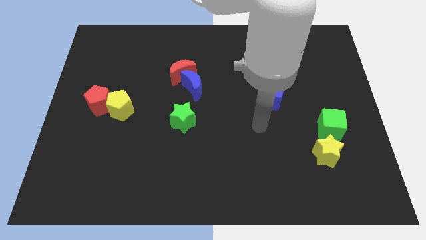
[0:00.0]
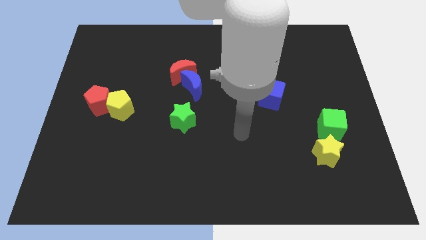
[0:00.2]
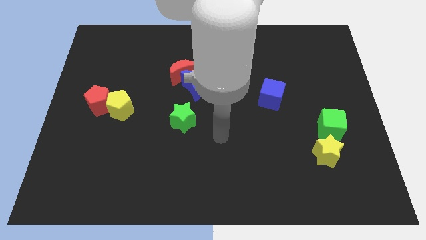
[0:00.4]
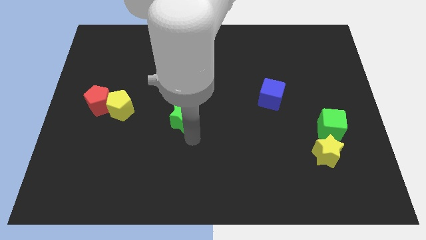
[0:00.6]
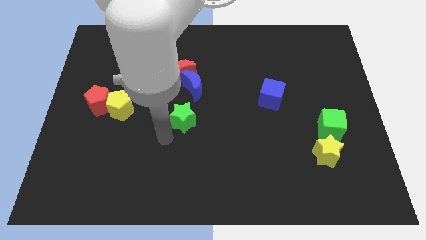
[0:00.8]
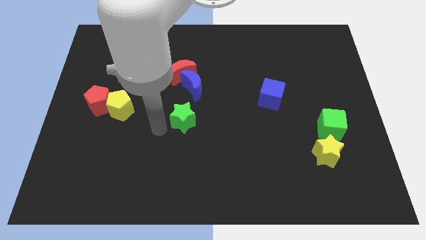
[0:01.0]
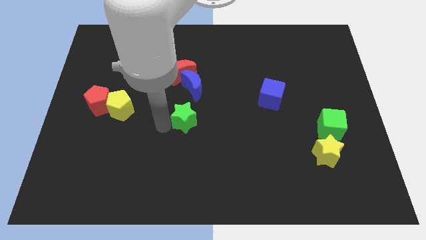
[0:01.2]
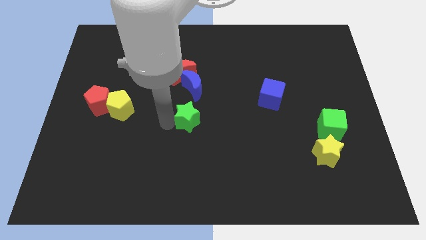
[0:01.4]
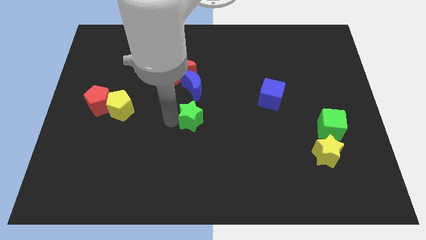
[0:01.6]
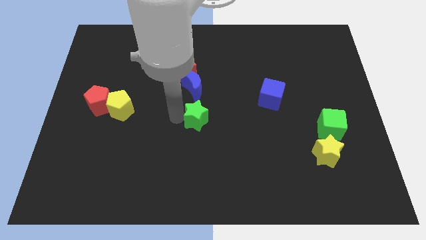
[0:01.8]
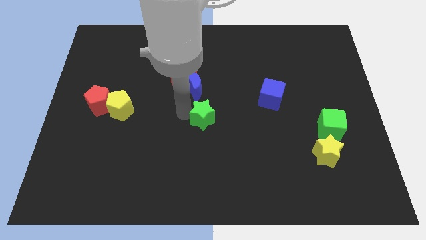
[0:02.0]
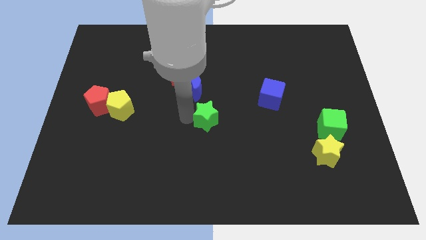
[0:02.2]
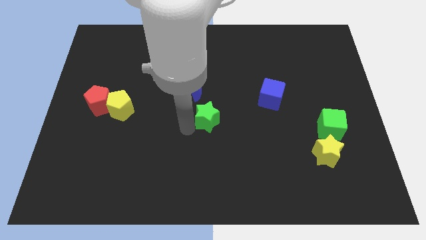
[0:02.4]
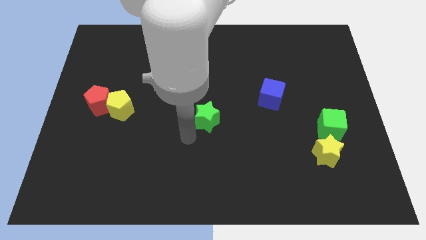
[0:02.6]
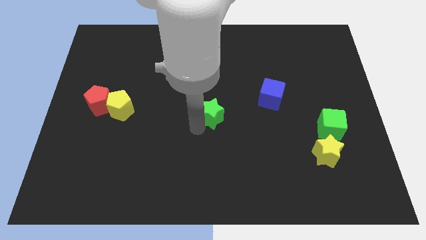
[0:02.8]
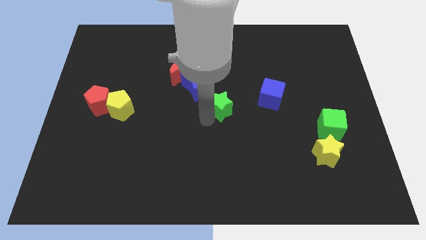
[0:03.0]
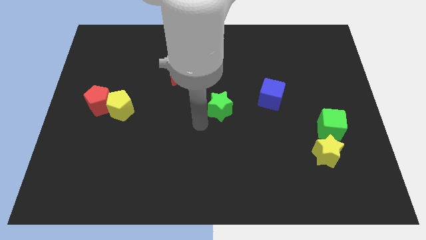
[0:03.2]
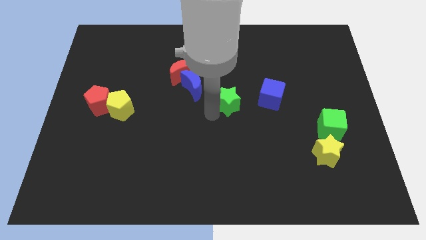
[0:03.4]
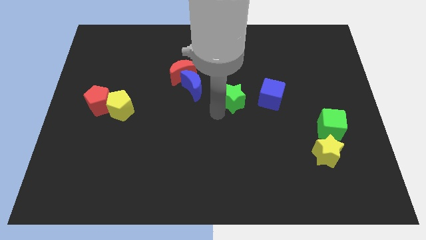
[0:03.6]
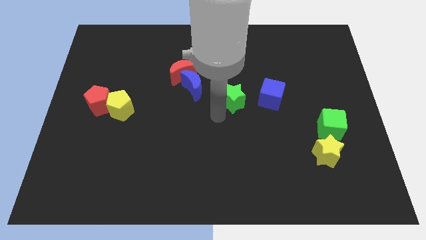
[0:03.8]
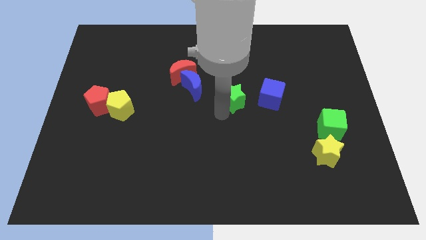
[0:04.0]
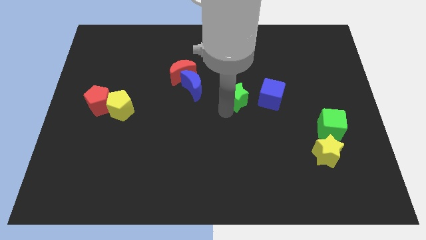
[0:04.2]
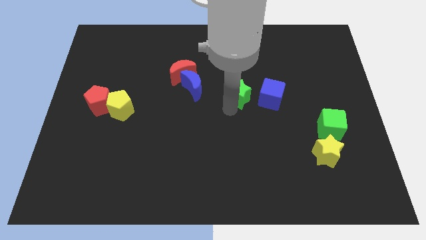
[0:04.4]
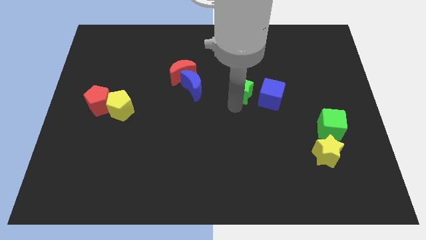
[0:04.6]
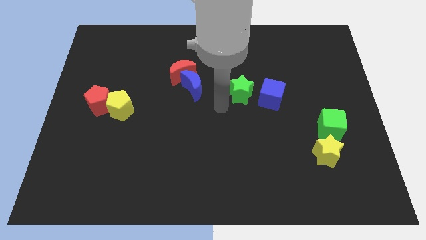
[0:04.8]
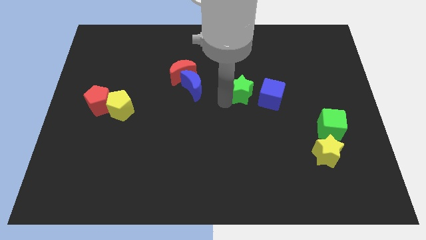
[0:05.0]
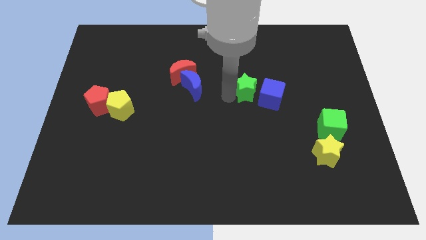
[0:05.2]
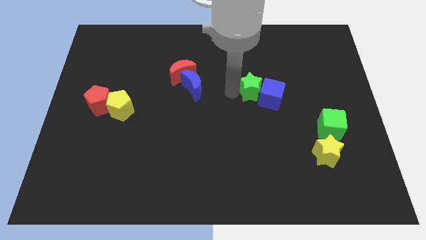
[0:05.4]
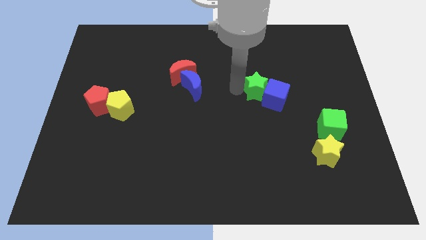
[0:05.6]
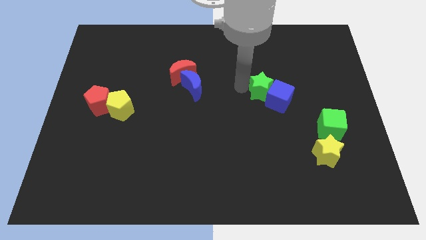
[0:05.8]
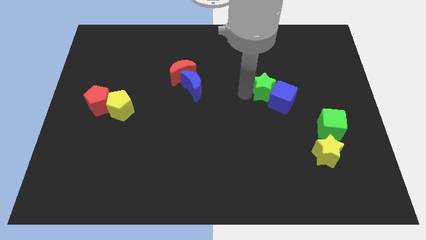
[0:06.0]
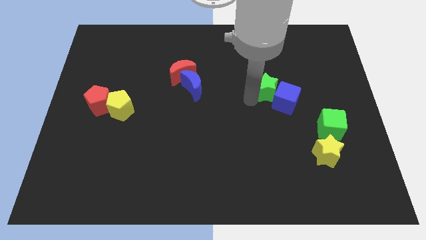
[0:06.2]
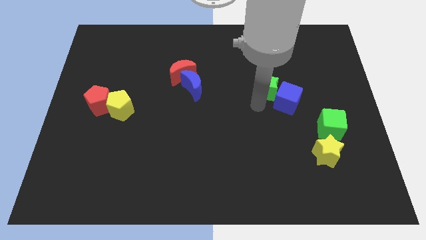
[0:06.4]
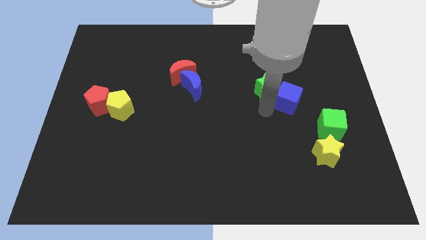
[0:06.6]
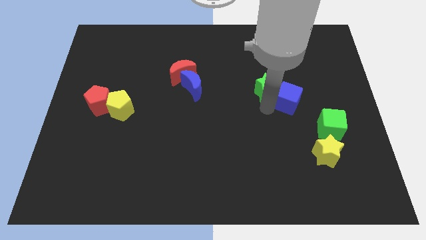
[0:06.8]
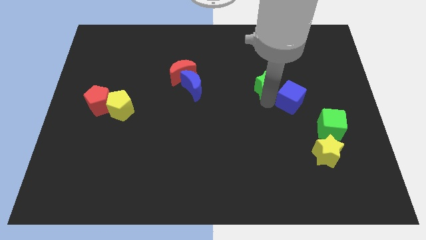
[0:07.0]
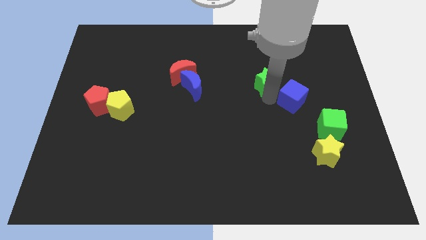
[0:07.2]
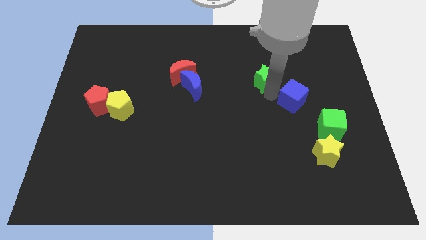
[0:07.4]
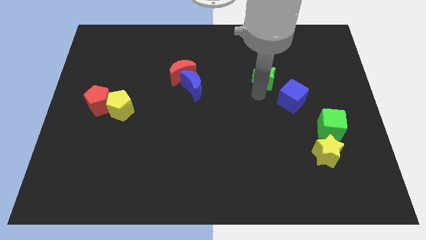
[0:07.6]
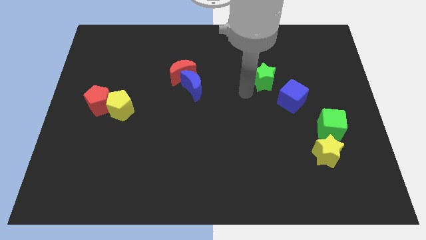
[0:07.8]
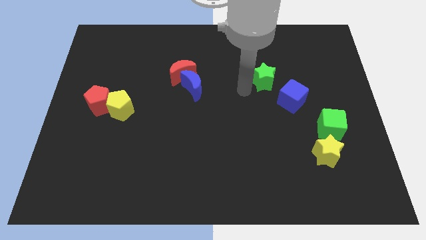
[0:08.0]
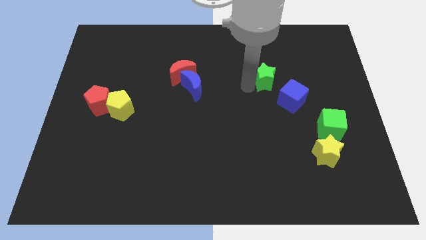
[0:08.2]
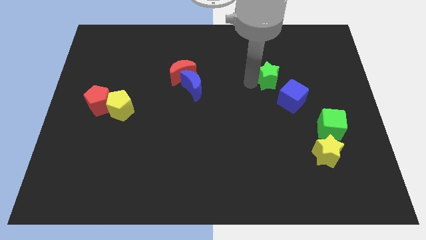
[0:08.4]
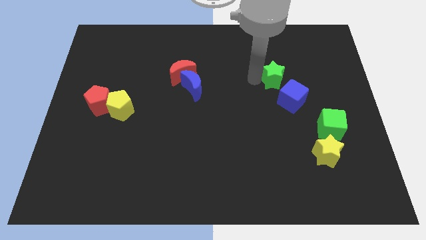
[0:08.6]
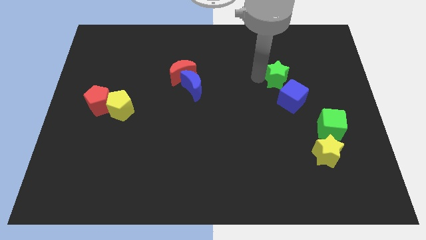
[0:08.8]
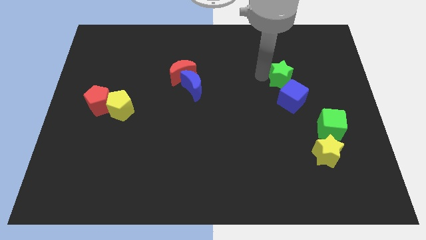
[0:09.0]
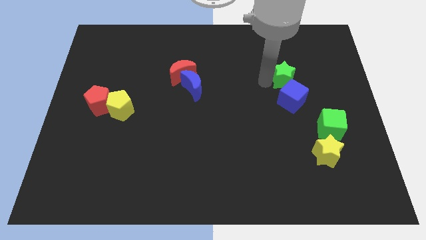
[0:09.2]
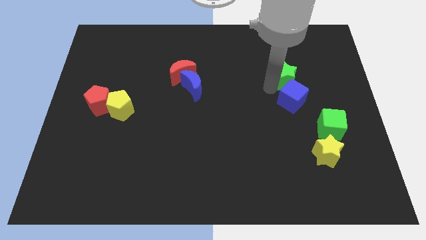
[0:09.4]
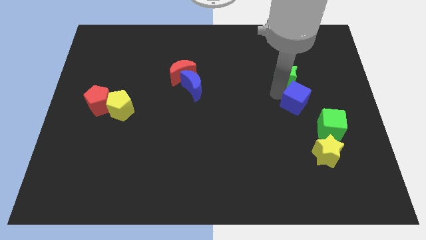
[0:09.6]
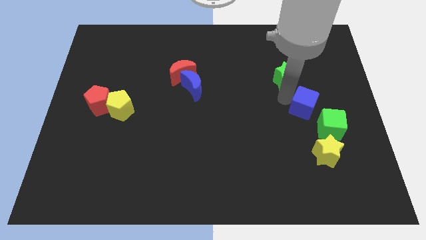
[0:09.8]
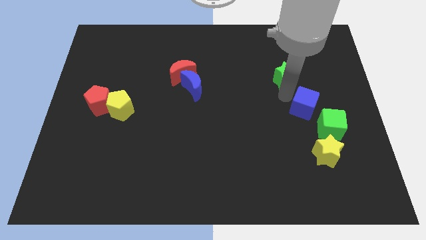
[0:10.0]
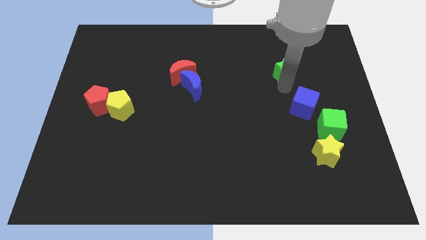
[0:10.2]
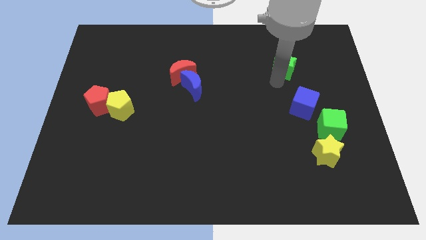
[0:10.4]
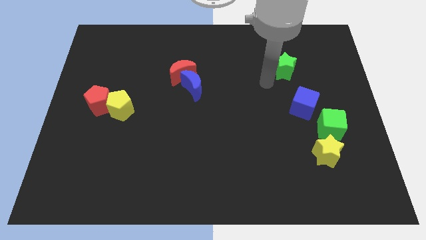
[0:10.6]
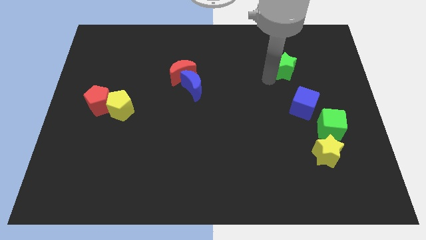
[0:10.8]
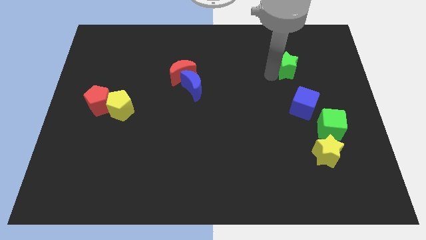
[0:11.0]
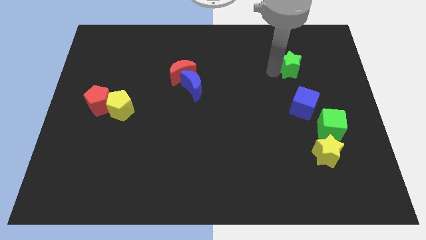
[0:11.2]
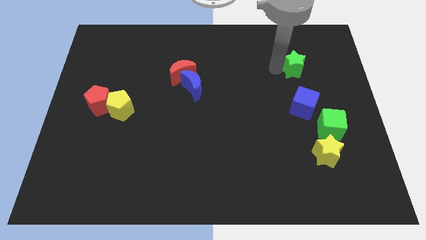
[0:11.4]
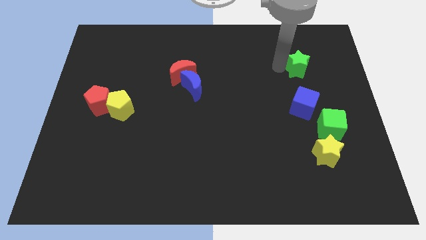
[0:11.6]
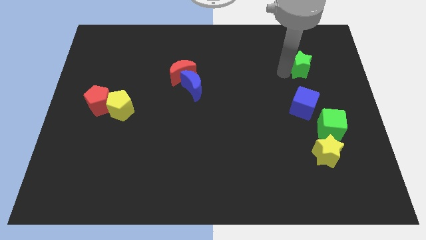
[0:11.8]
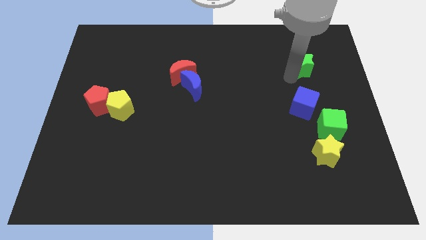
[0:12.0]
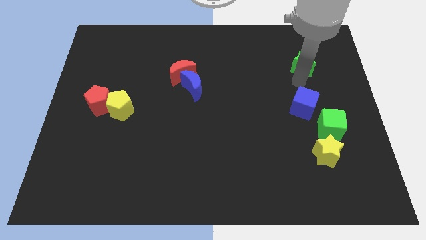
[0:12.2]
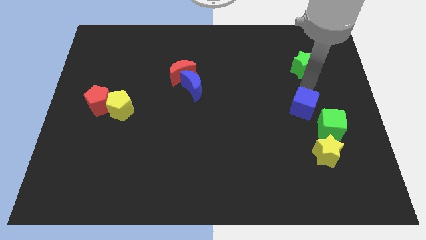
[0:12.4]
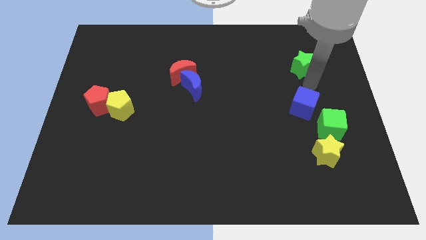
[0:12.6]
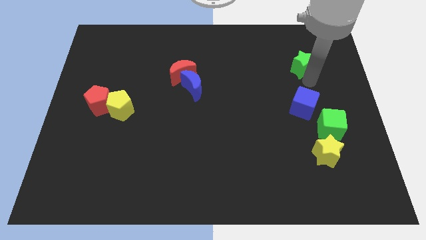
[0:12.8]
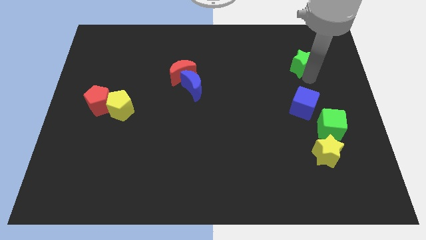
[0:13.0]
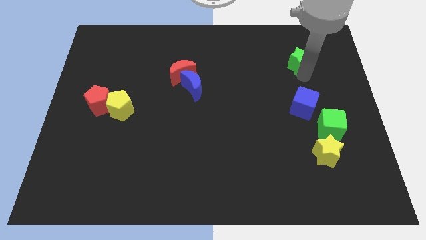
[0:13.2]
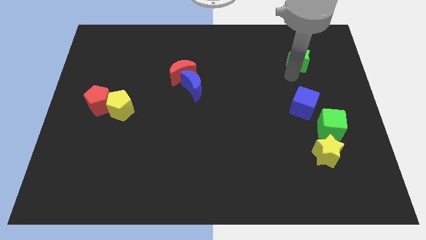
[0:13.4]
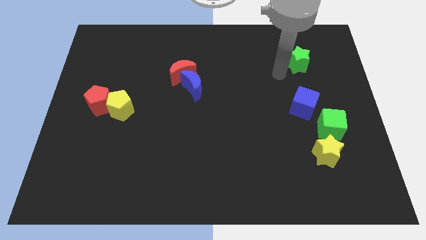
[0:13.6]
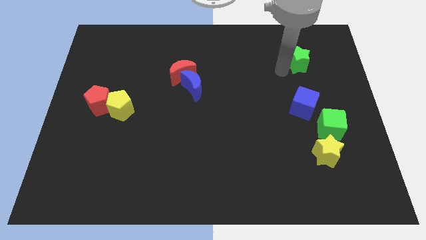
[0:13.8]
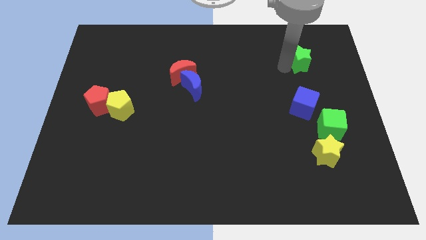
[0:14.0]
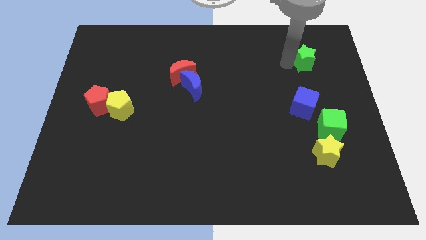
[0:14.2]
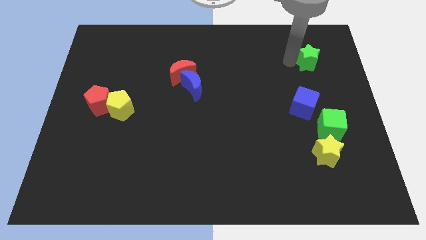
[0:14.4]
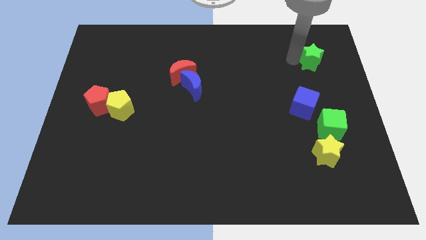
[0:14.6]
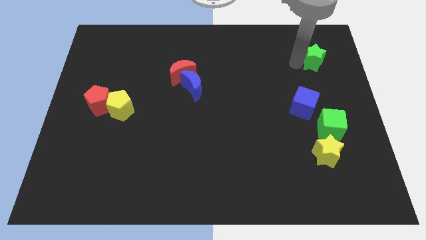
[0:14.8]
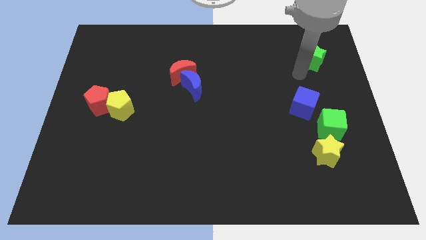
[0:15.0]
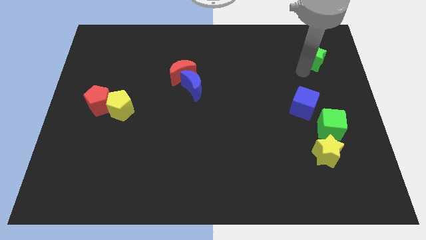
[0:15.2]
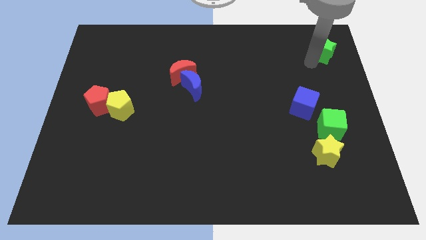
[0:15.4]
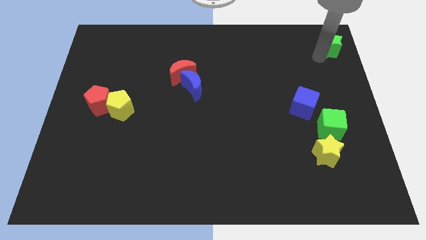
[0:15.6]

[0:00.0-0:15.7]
push the green star to the top right
